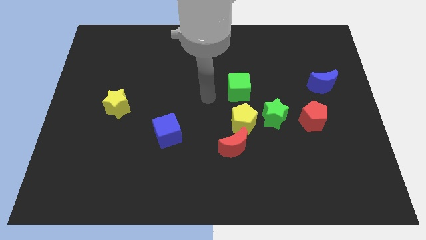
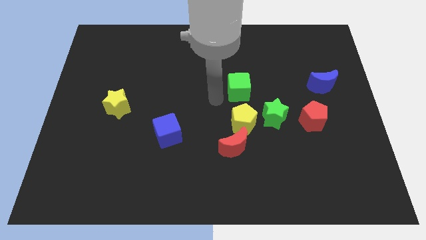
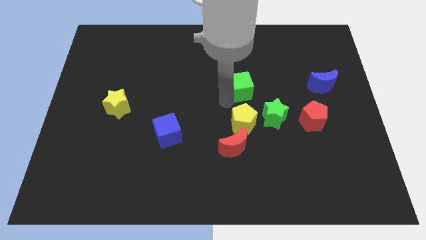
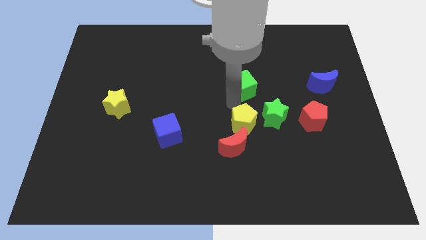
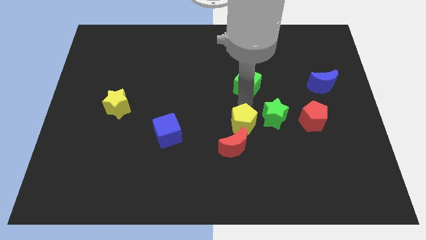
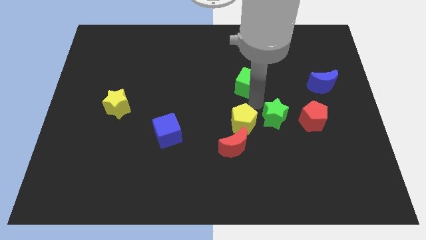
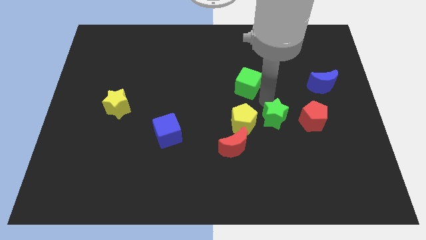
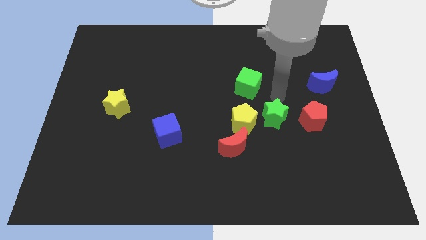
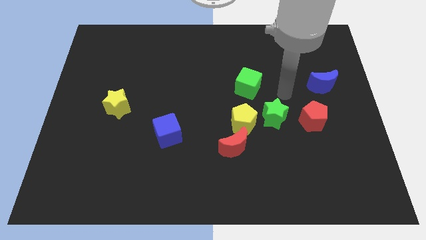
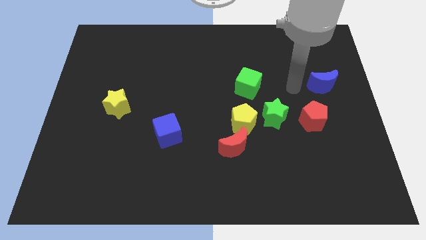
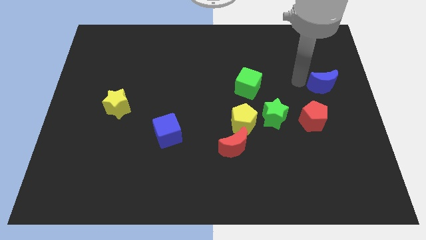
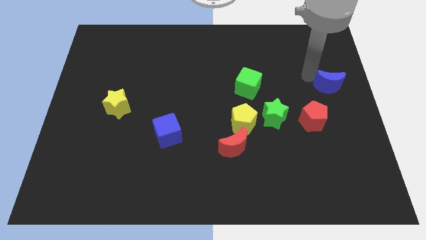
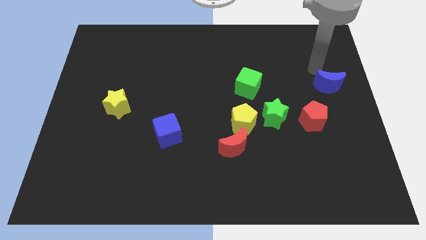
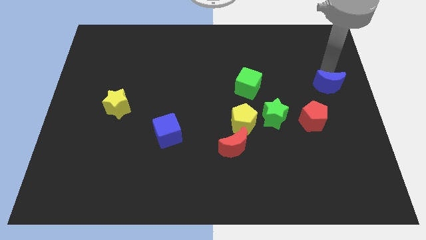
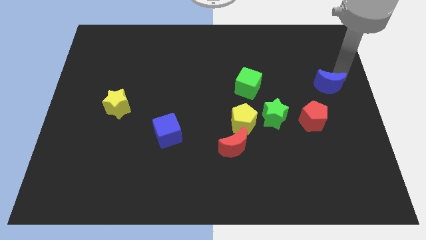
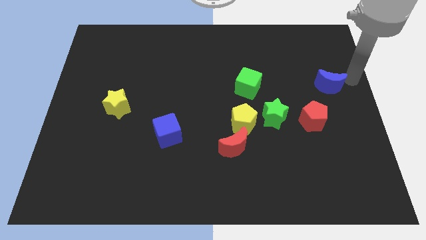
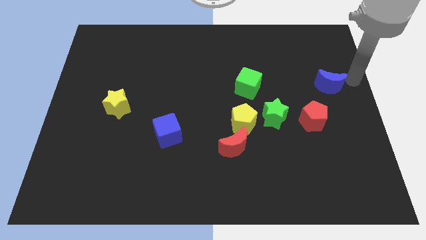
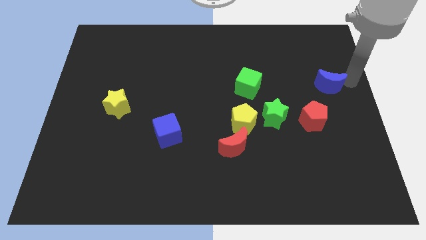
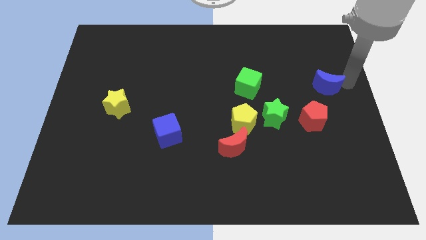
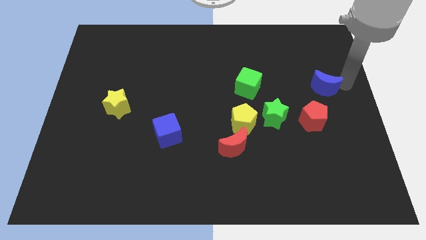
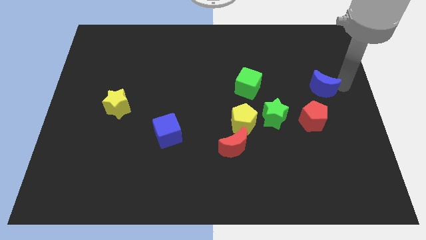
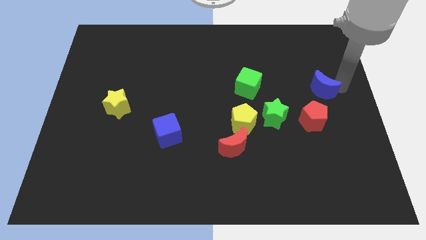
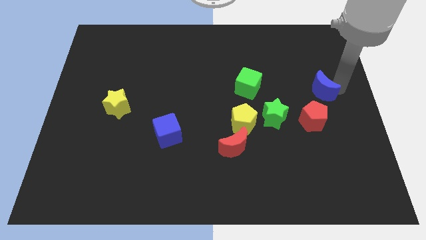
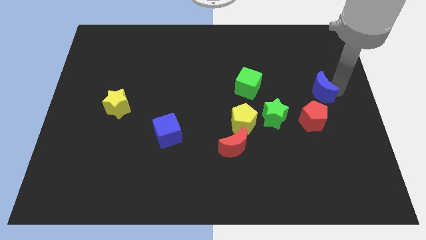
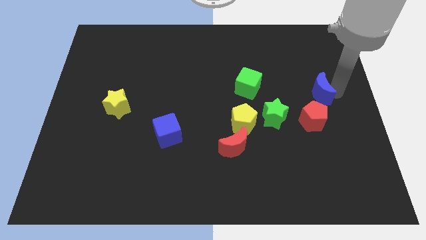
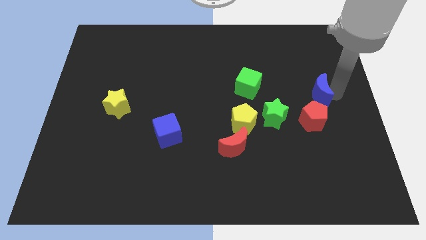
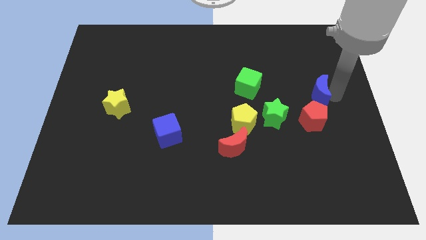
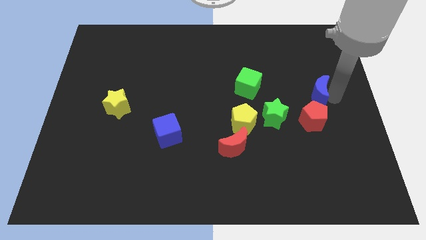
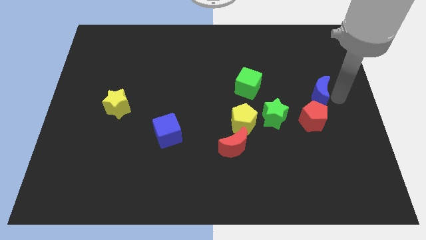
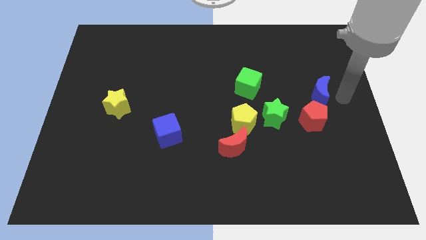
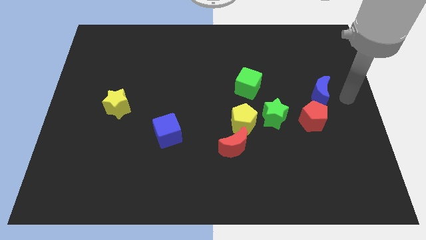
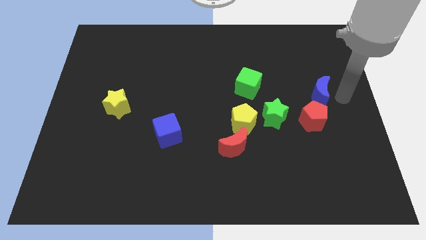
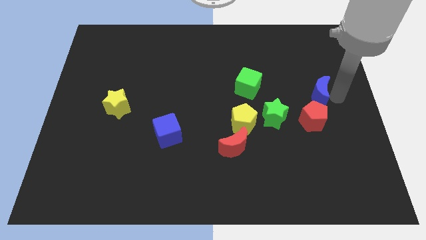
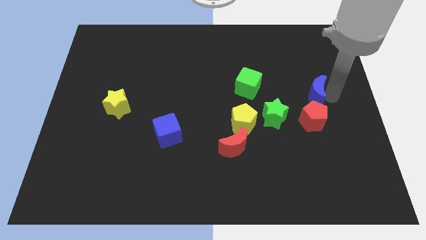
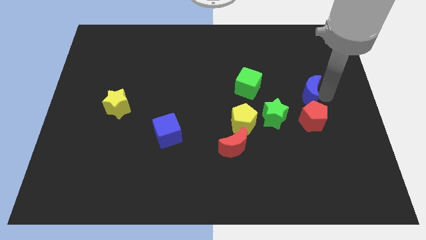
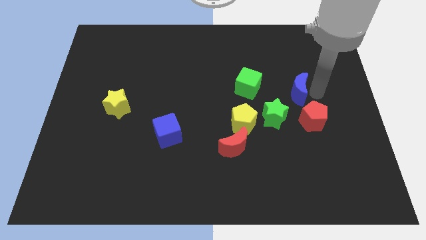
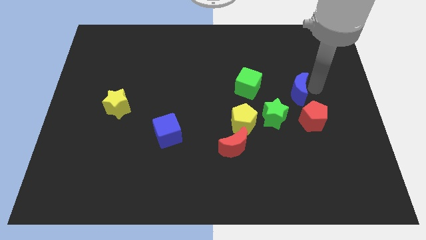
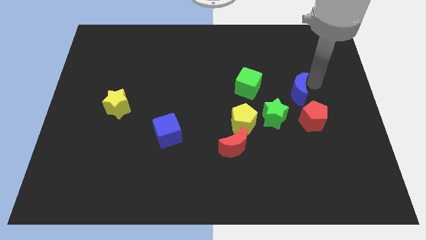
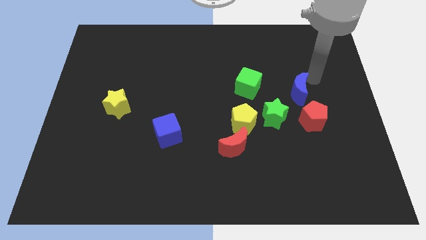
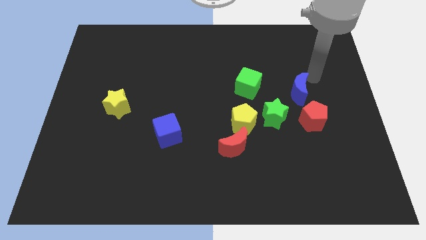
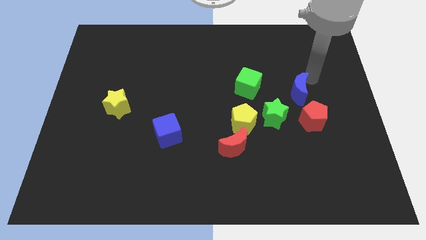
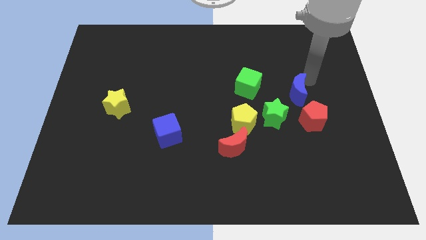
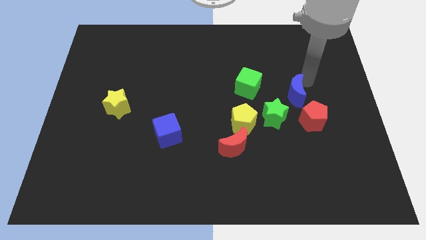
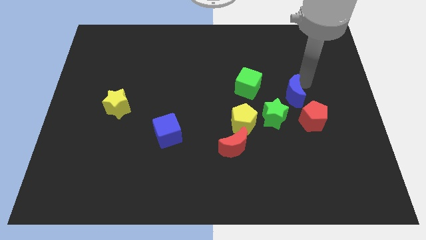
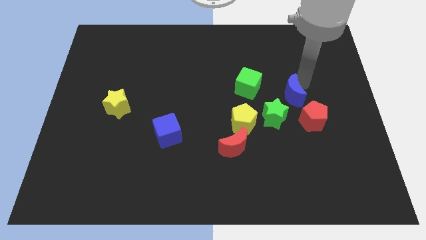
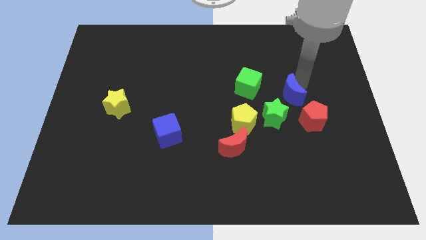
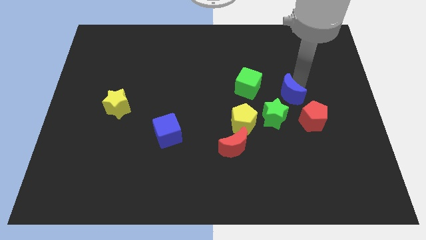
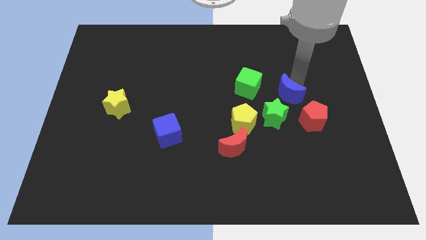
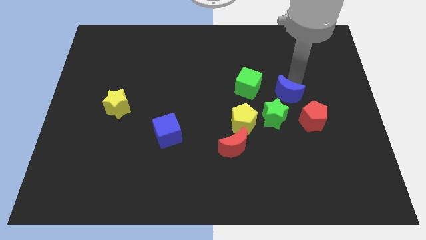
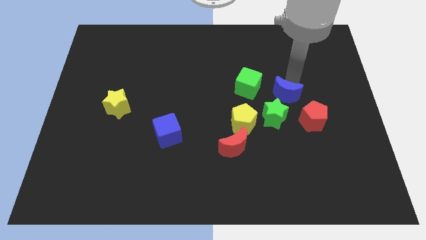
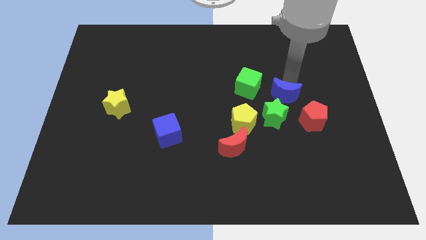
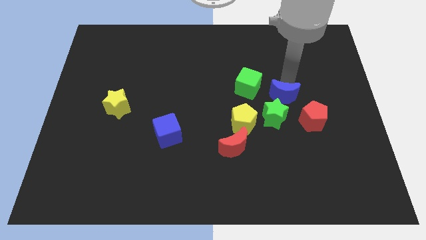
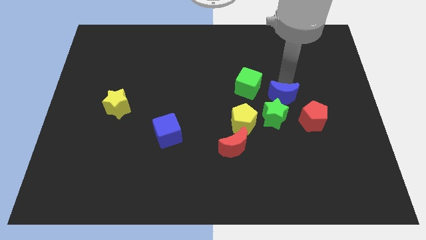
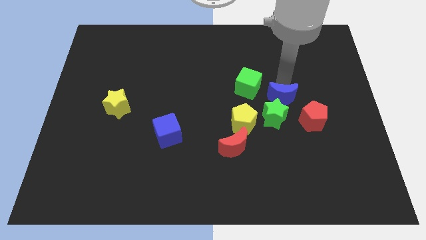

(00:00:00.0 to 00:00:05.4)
push the blue moon next to the green star

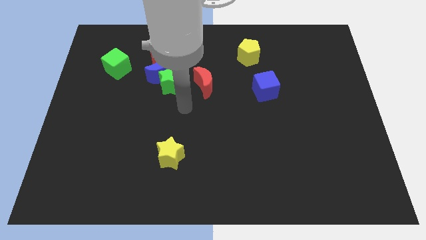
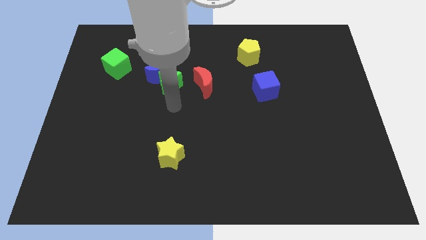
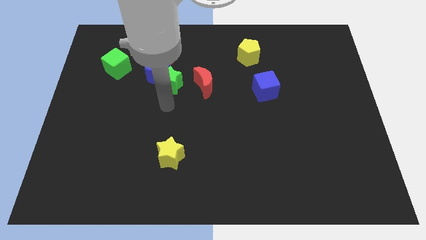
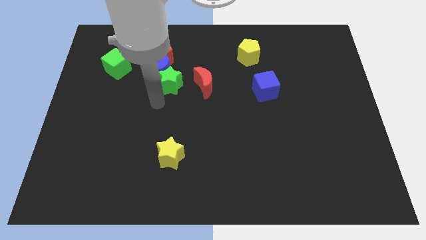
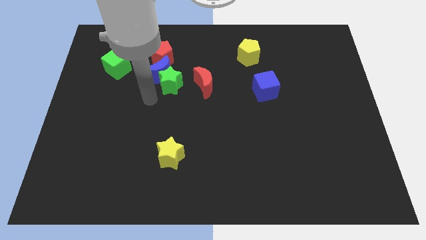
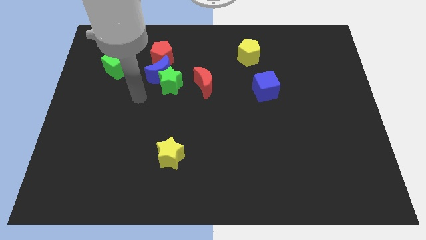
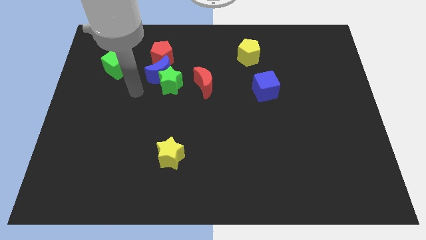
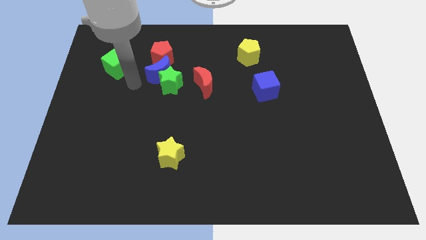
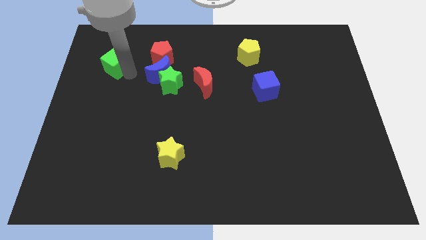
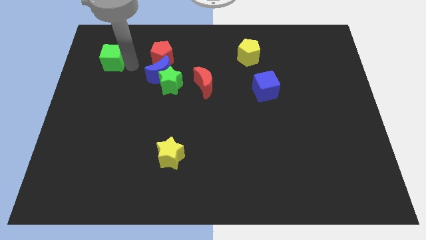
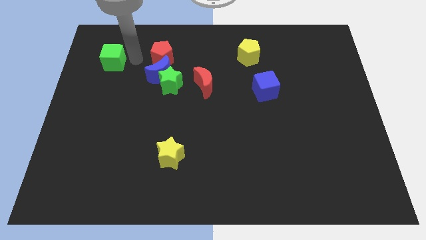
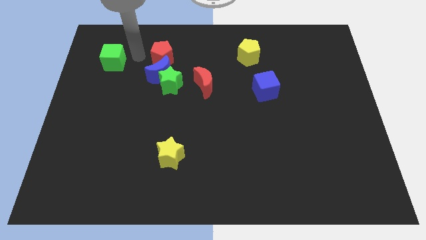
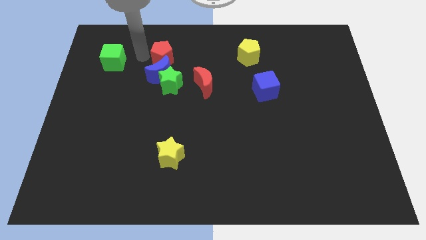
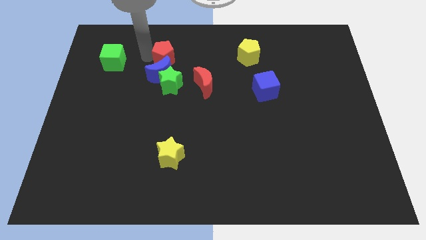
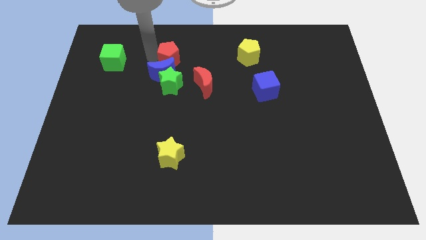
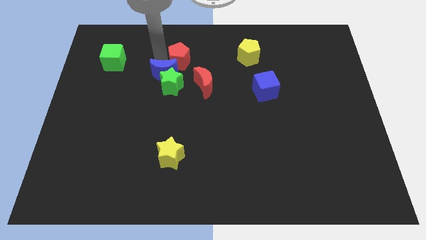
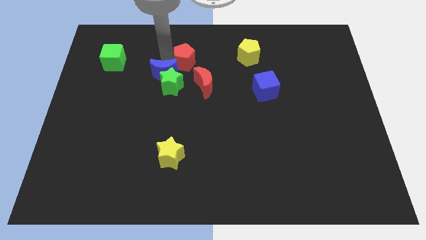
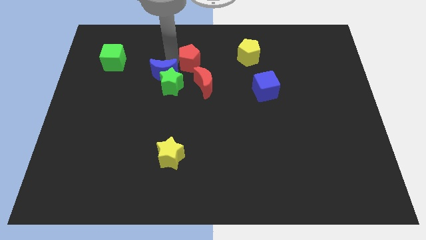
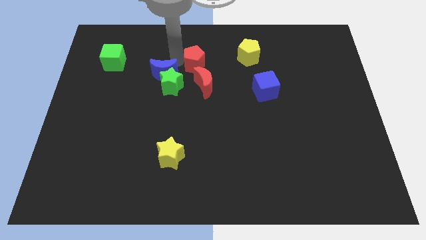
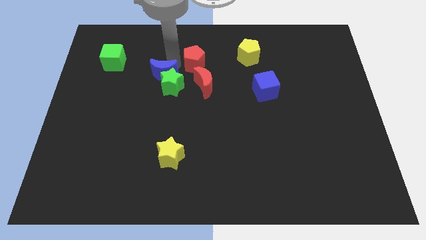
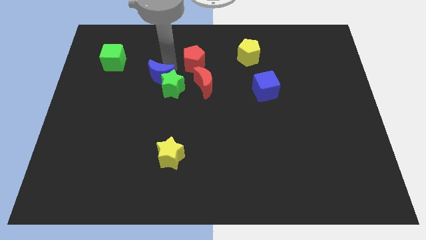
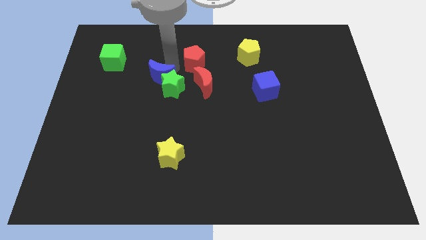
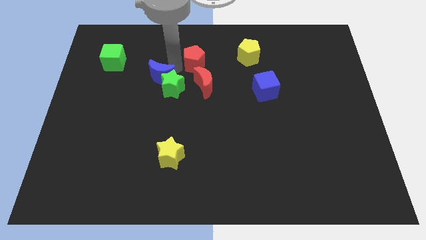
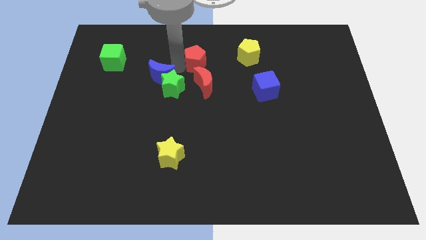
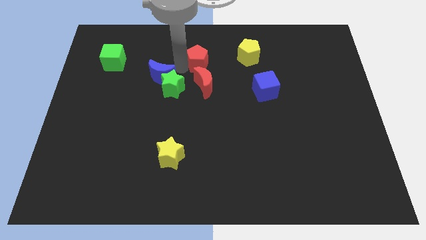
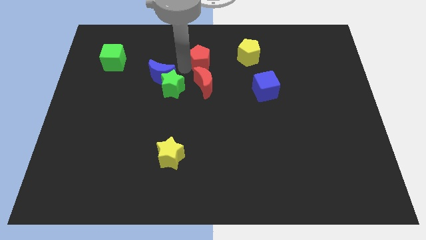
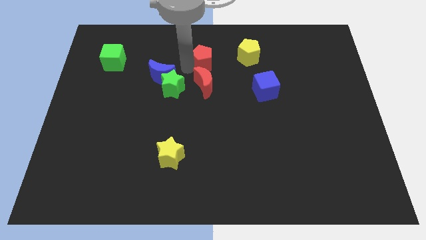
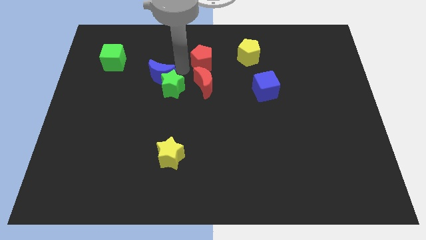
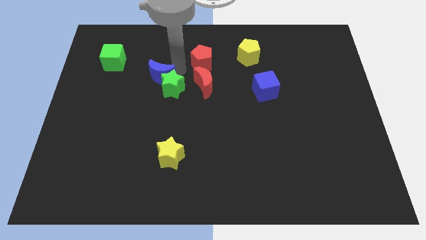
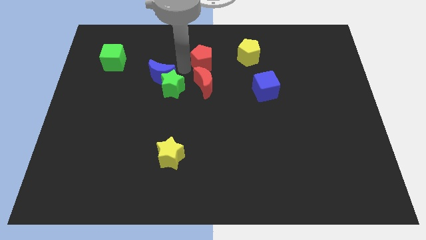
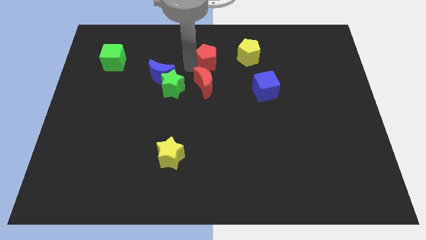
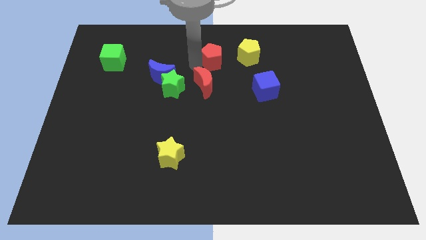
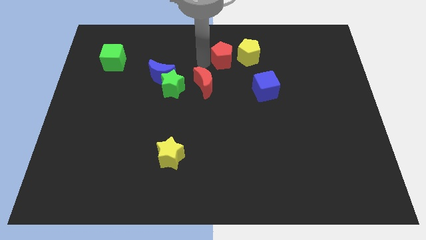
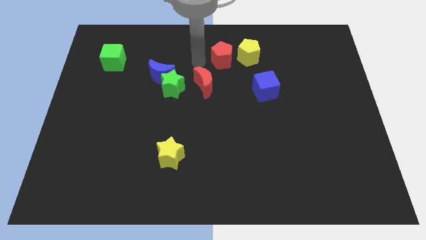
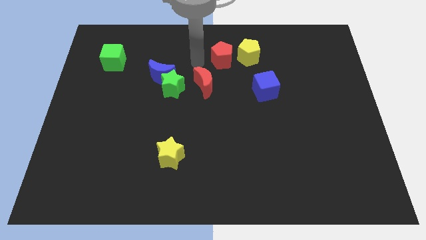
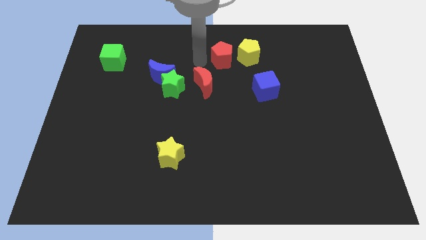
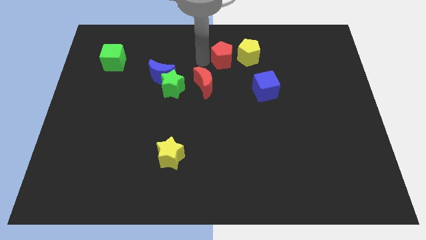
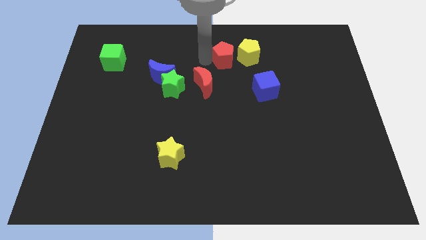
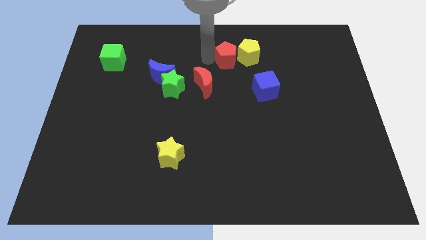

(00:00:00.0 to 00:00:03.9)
put the red pentagon next to the yellow pentagon
